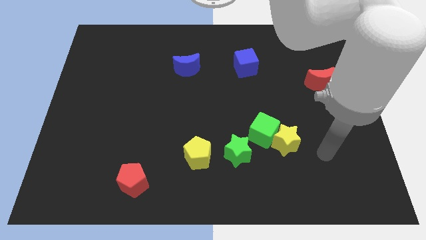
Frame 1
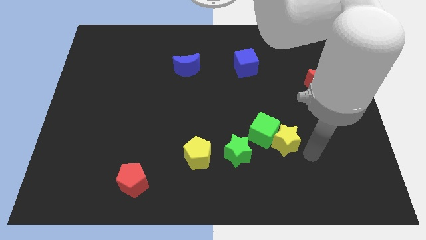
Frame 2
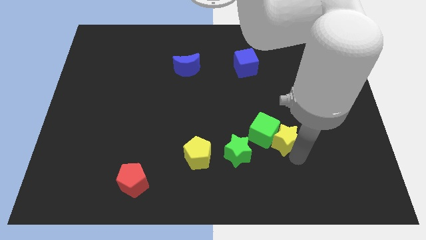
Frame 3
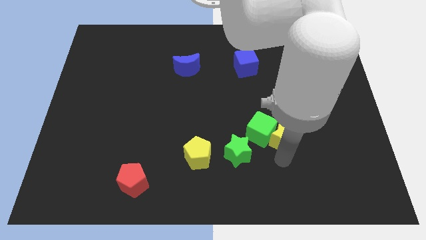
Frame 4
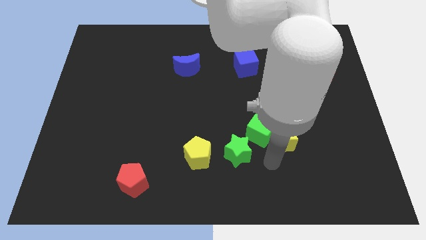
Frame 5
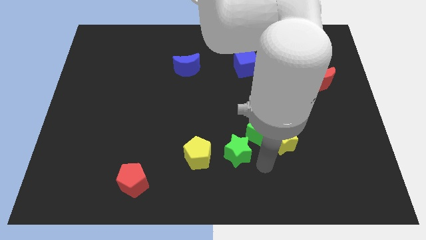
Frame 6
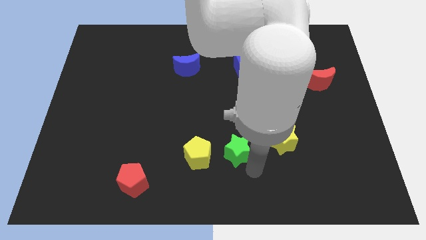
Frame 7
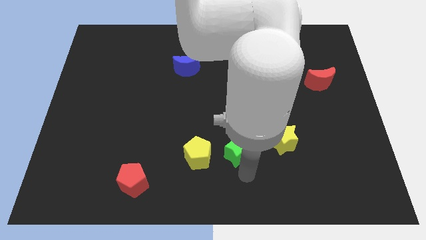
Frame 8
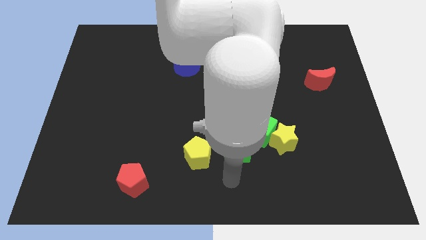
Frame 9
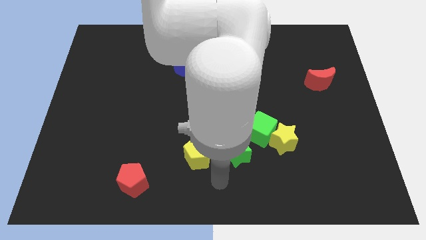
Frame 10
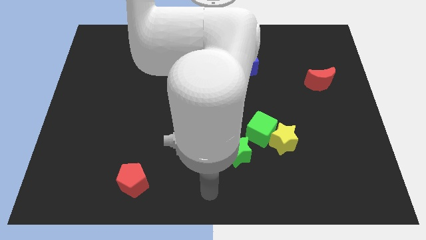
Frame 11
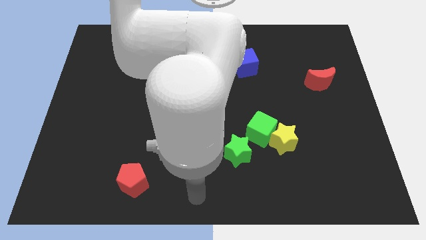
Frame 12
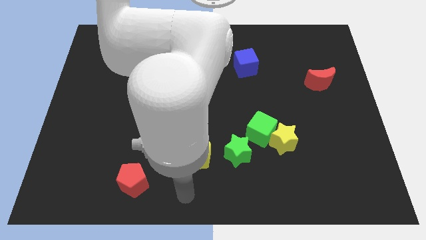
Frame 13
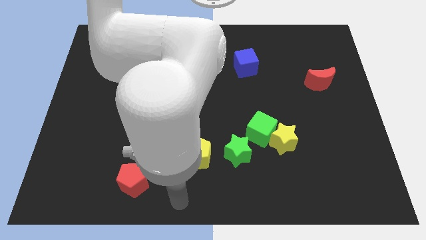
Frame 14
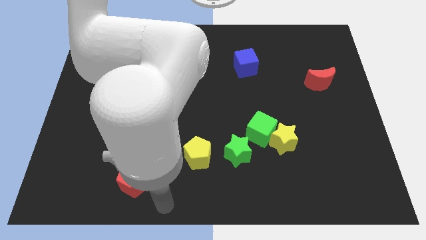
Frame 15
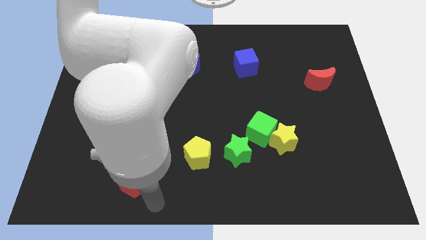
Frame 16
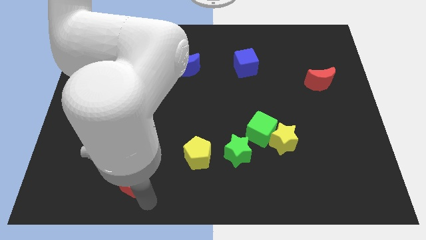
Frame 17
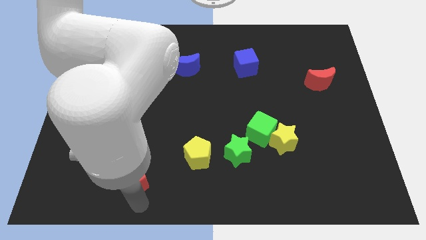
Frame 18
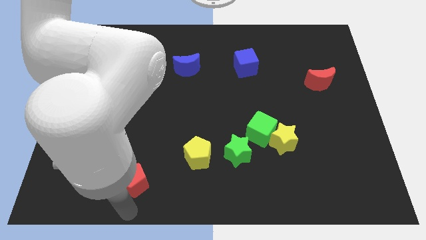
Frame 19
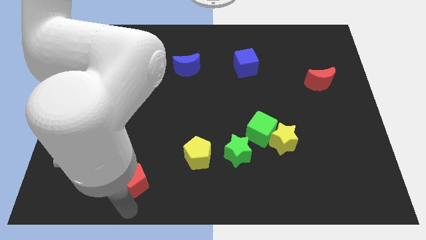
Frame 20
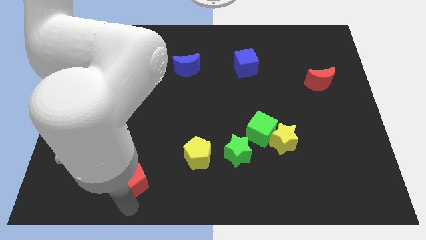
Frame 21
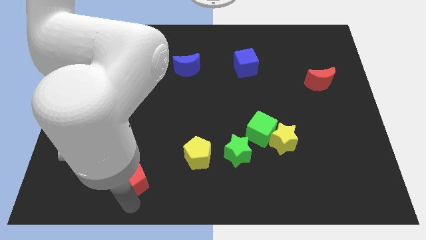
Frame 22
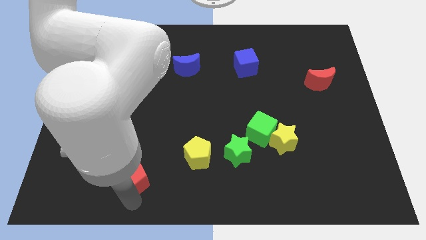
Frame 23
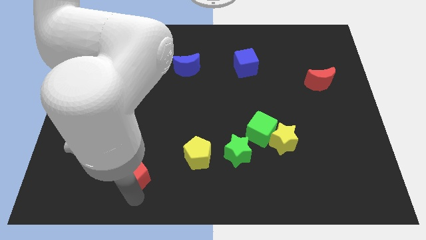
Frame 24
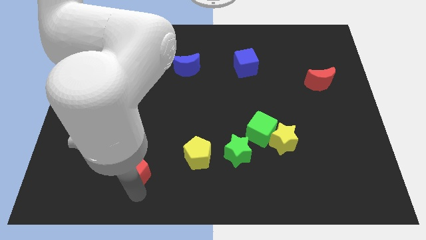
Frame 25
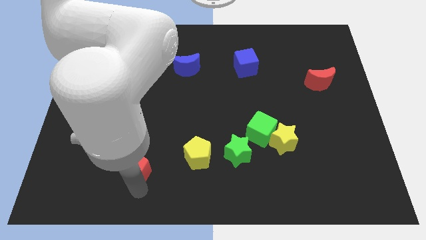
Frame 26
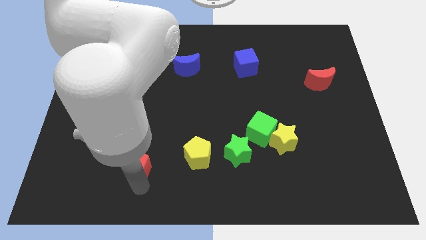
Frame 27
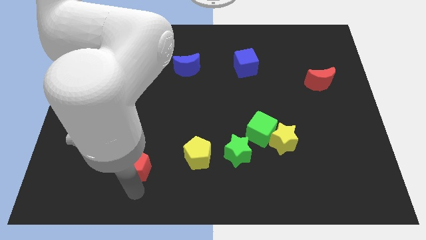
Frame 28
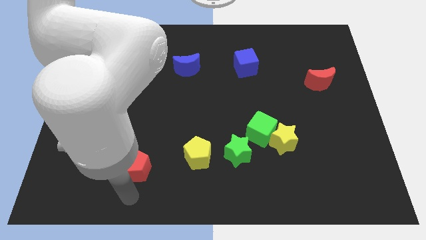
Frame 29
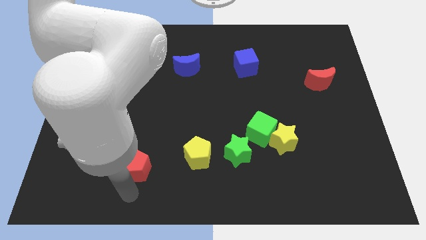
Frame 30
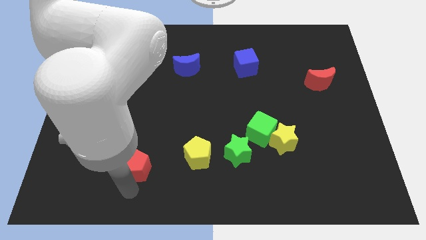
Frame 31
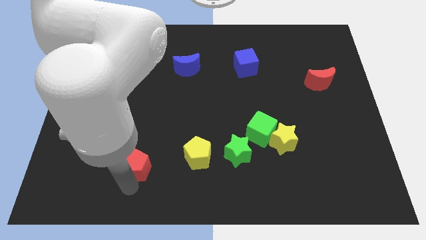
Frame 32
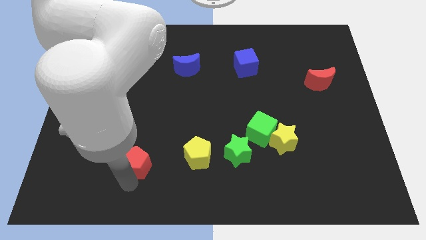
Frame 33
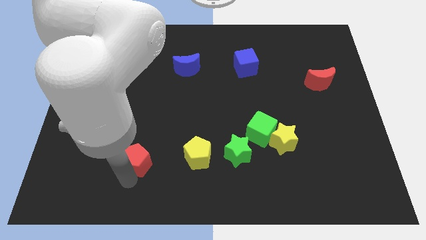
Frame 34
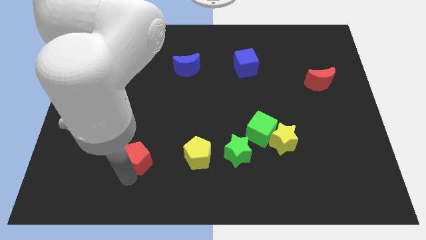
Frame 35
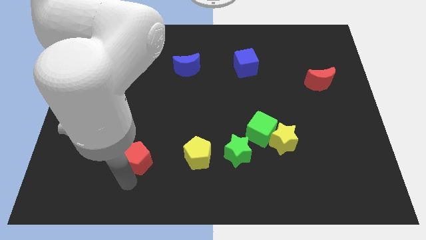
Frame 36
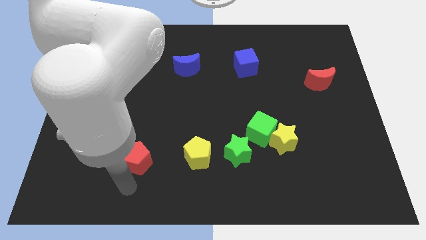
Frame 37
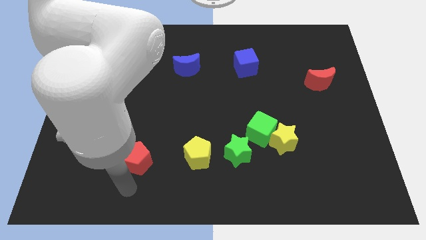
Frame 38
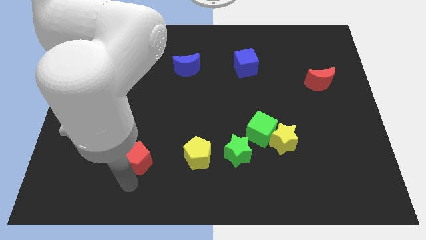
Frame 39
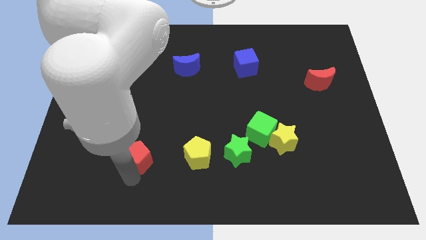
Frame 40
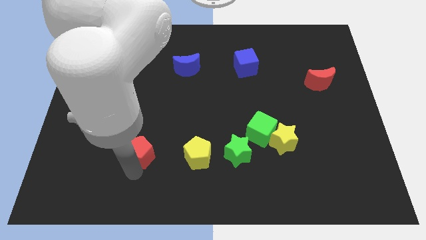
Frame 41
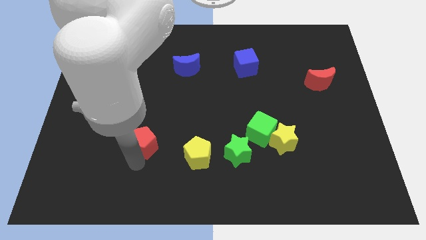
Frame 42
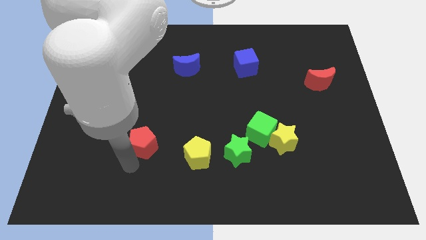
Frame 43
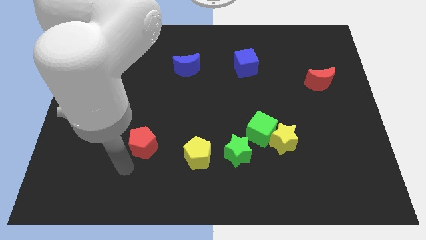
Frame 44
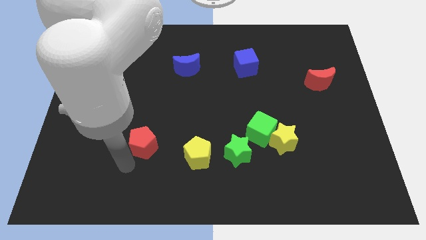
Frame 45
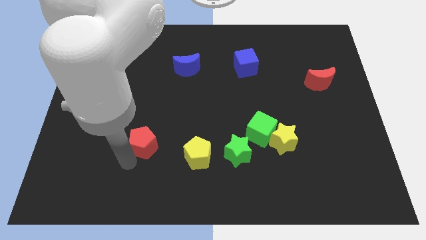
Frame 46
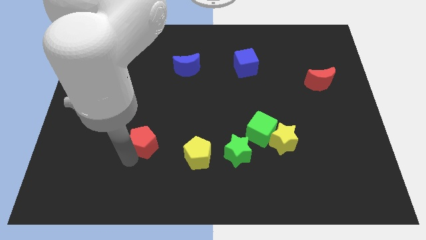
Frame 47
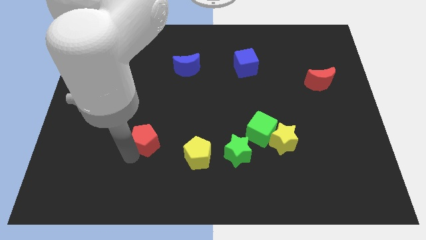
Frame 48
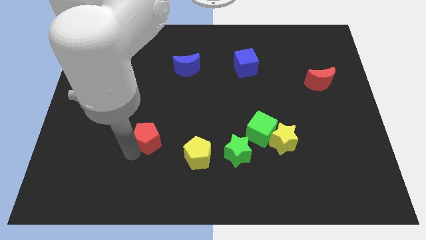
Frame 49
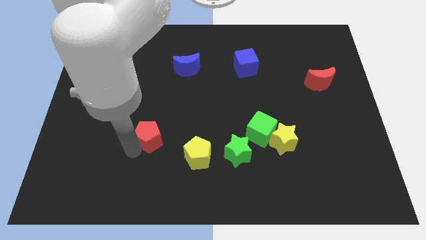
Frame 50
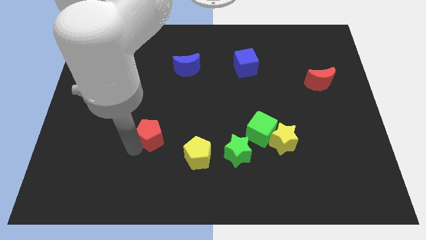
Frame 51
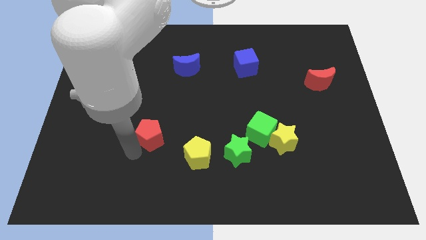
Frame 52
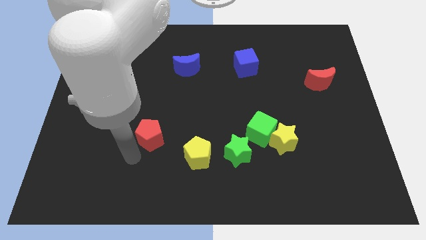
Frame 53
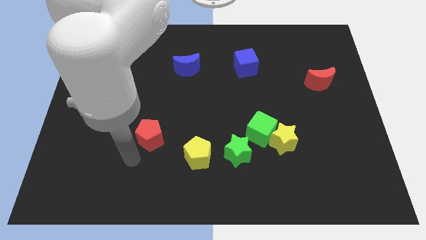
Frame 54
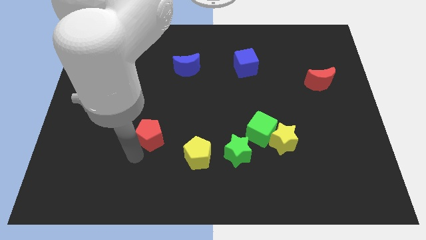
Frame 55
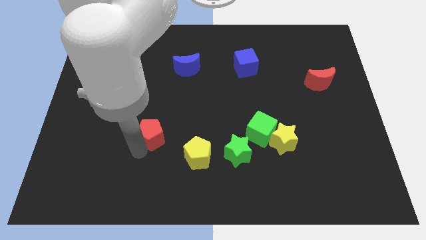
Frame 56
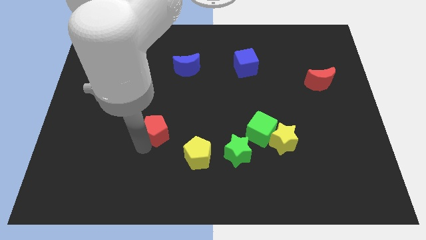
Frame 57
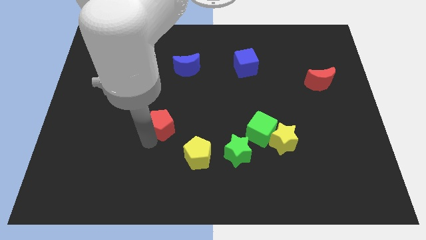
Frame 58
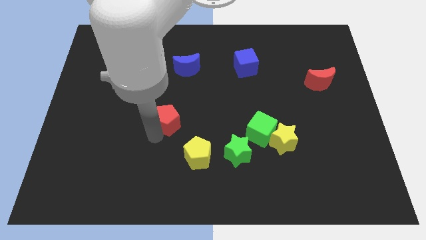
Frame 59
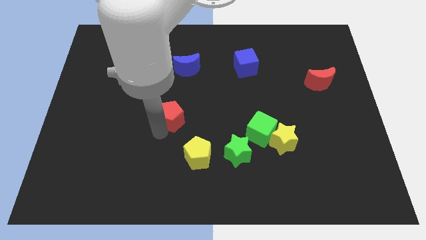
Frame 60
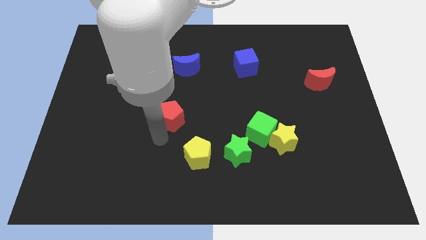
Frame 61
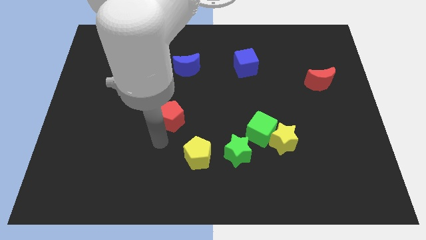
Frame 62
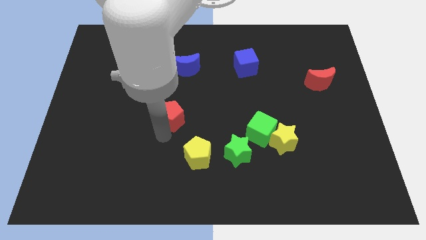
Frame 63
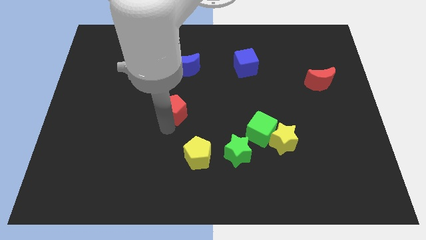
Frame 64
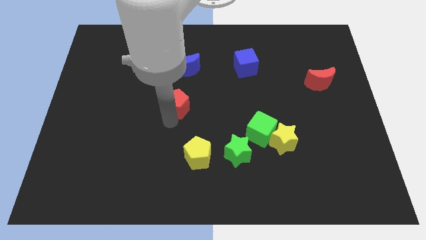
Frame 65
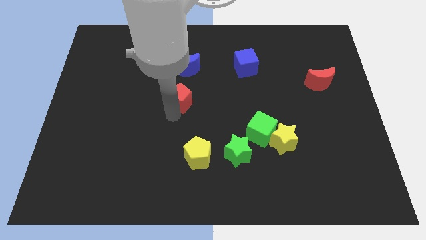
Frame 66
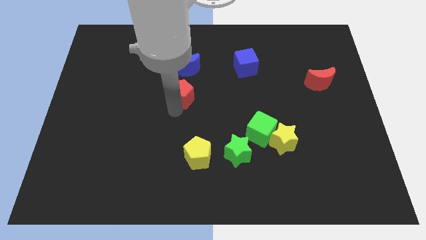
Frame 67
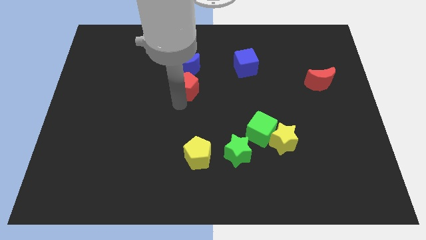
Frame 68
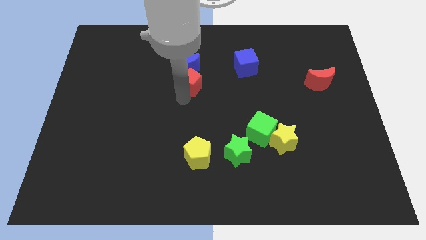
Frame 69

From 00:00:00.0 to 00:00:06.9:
slide the red pentagon to the blue moon
